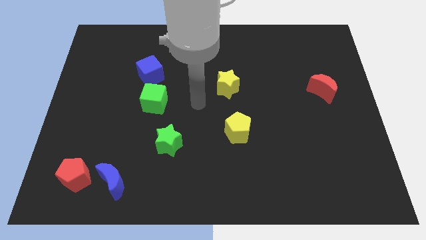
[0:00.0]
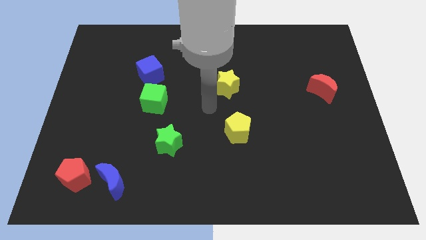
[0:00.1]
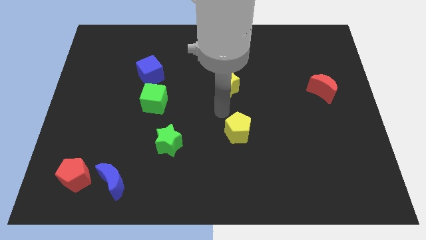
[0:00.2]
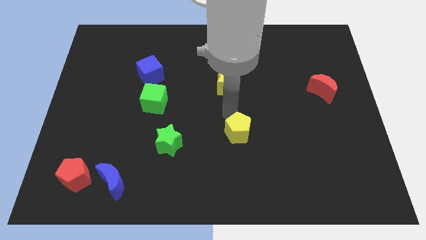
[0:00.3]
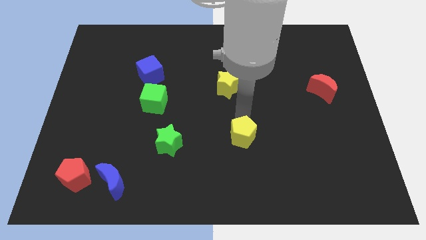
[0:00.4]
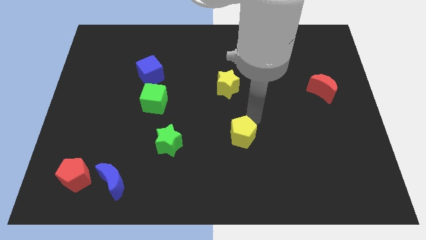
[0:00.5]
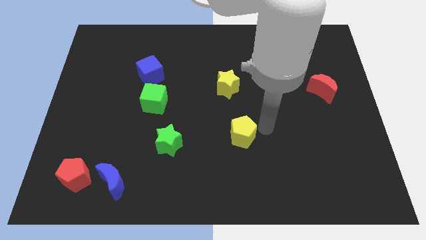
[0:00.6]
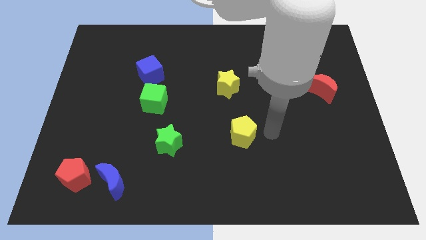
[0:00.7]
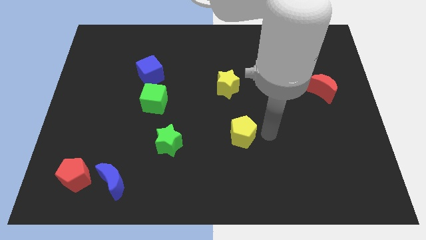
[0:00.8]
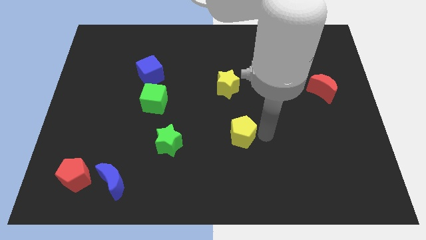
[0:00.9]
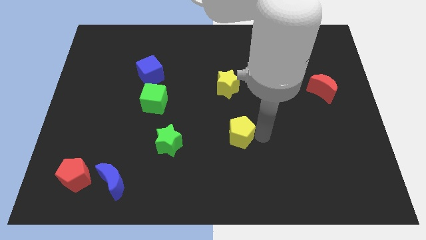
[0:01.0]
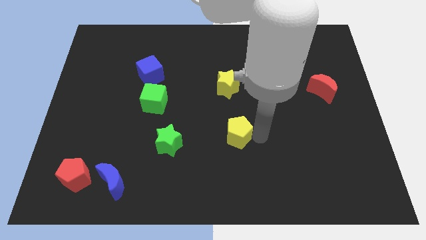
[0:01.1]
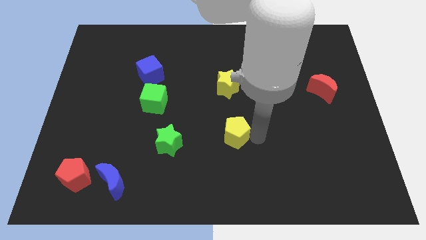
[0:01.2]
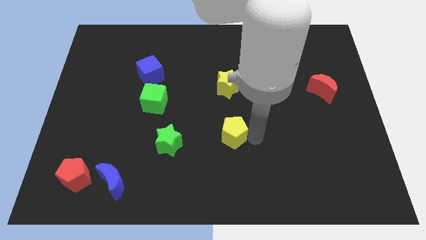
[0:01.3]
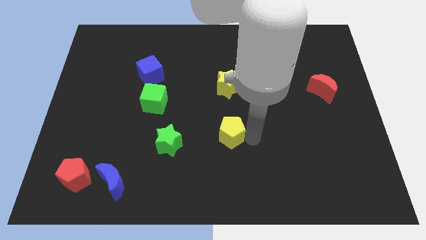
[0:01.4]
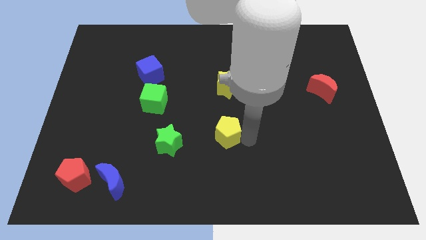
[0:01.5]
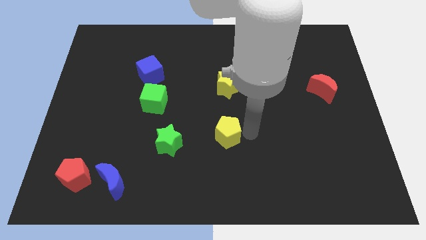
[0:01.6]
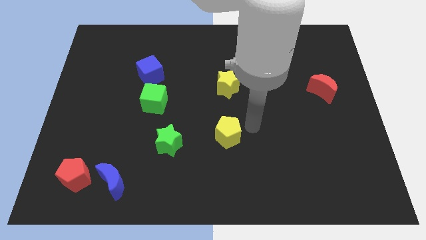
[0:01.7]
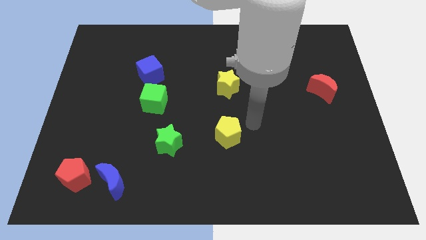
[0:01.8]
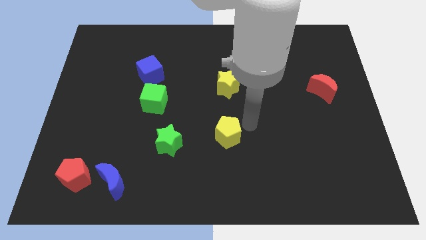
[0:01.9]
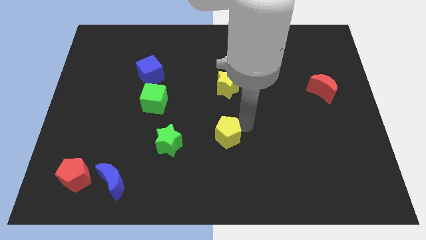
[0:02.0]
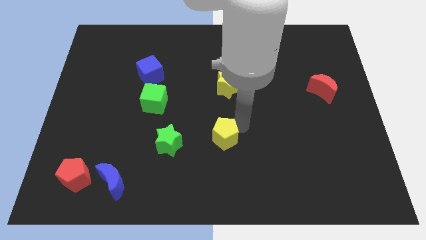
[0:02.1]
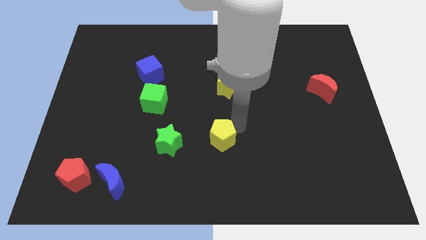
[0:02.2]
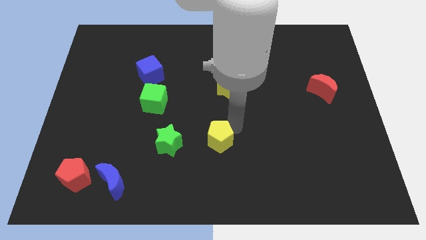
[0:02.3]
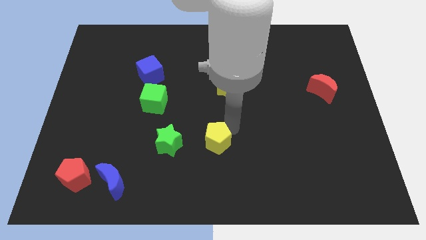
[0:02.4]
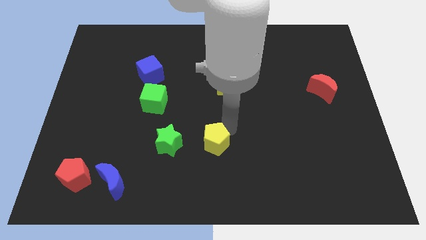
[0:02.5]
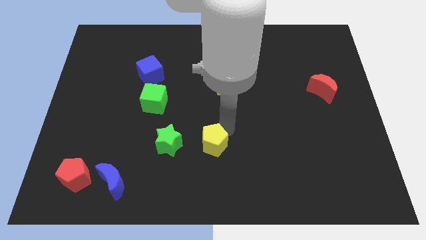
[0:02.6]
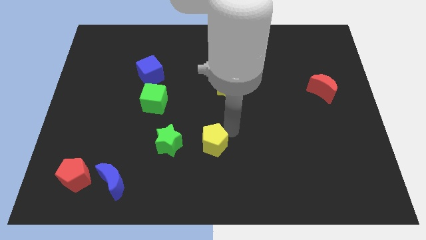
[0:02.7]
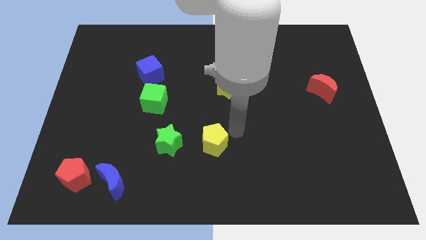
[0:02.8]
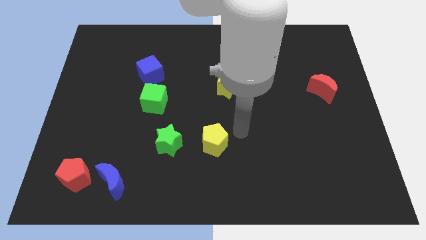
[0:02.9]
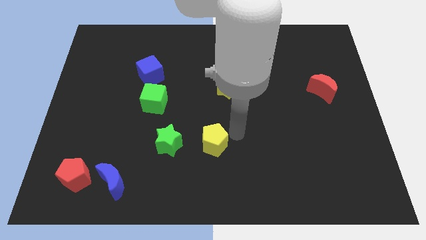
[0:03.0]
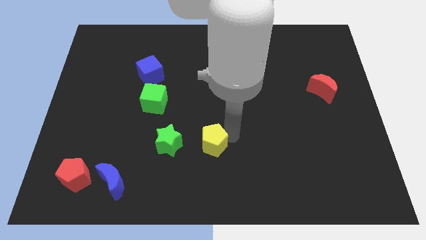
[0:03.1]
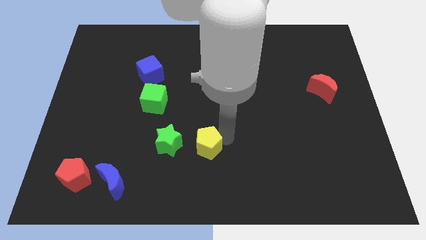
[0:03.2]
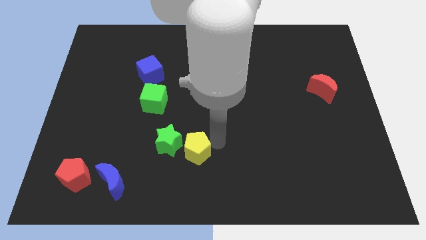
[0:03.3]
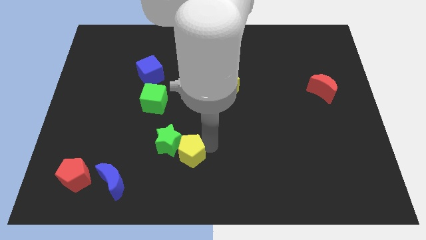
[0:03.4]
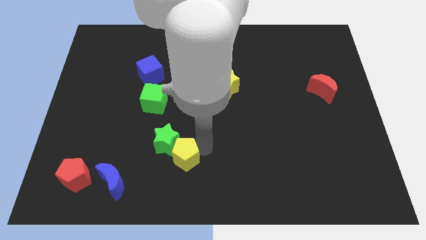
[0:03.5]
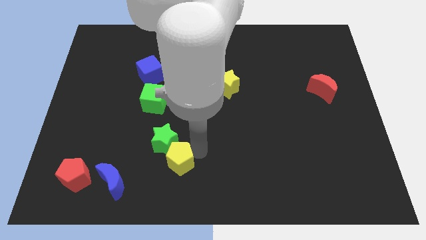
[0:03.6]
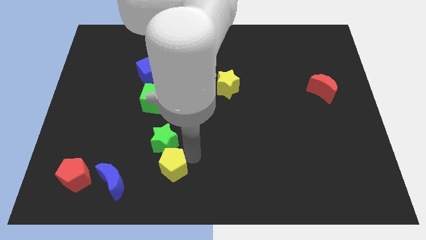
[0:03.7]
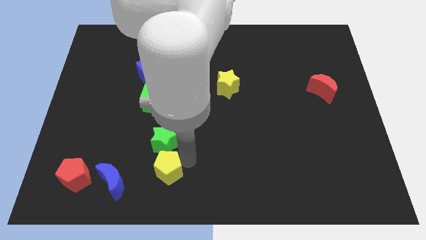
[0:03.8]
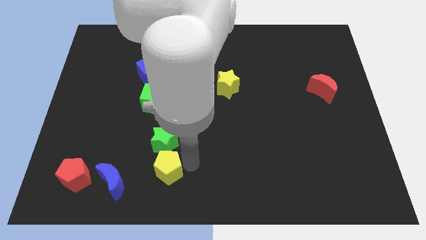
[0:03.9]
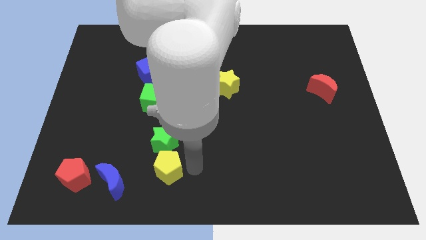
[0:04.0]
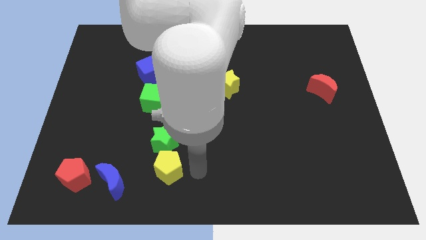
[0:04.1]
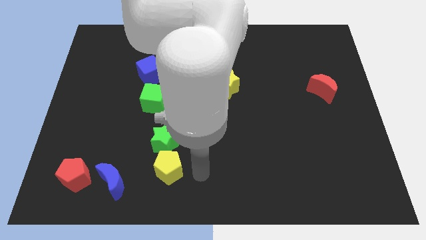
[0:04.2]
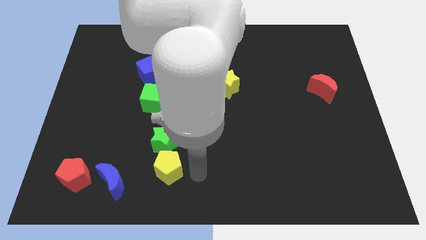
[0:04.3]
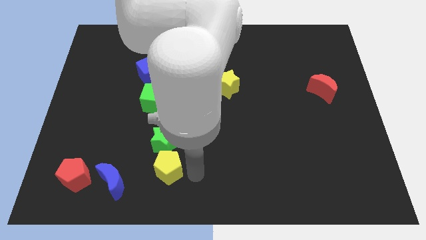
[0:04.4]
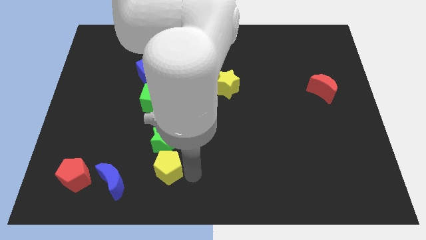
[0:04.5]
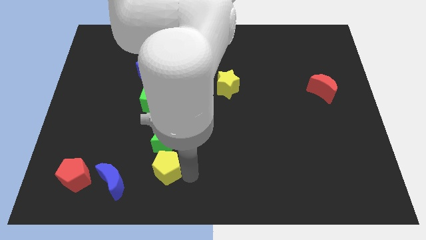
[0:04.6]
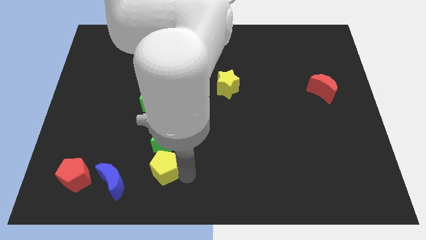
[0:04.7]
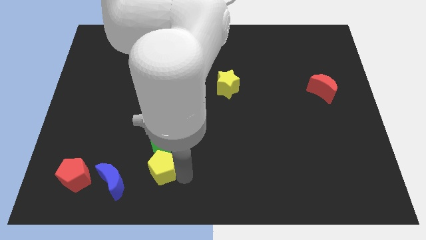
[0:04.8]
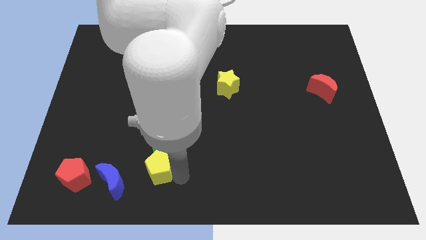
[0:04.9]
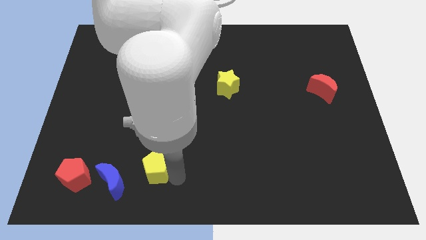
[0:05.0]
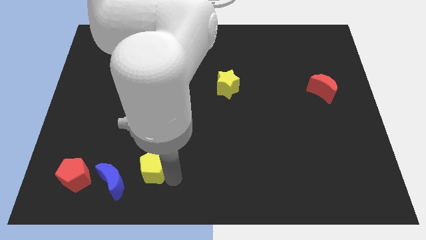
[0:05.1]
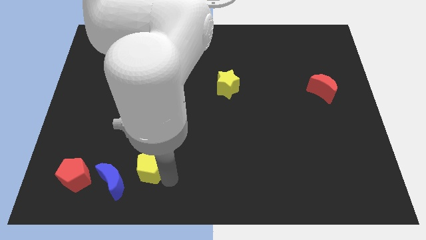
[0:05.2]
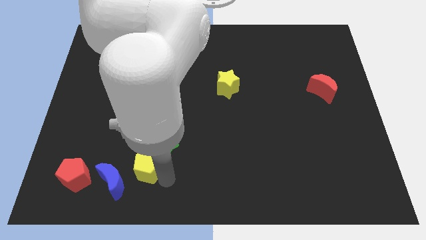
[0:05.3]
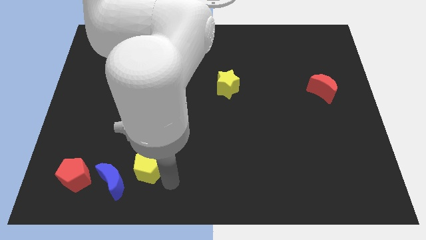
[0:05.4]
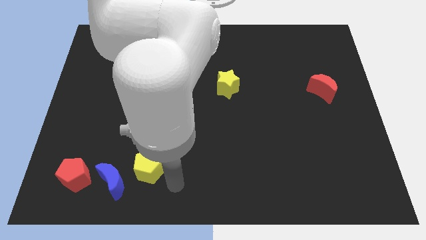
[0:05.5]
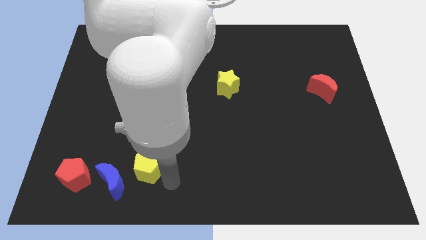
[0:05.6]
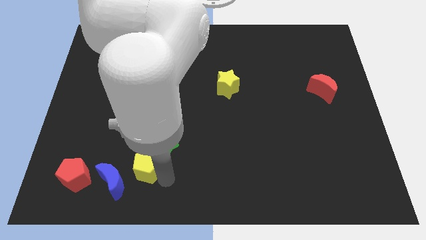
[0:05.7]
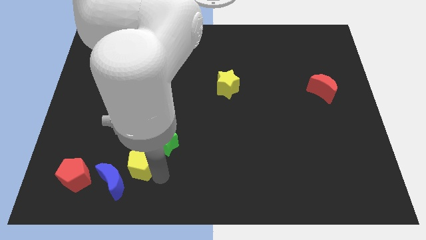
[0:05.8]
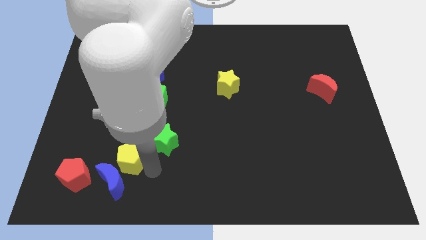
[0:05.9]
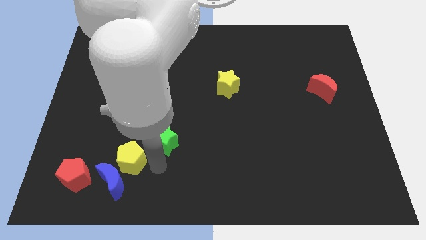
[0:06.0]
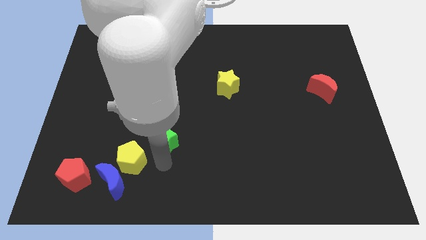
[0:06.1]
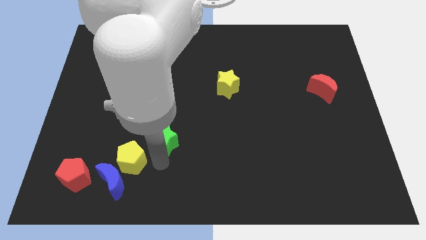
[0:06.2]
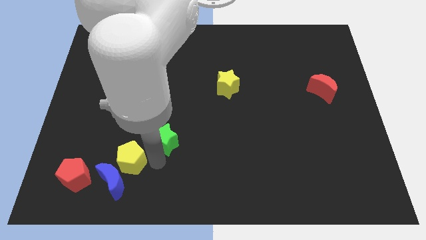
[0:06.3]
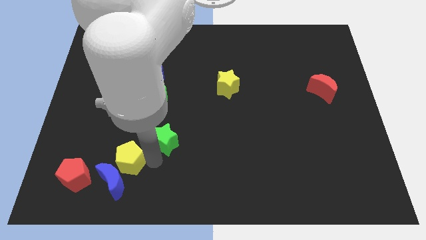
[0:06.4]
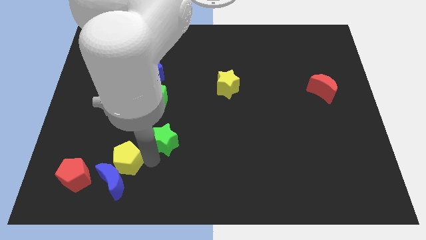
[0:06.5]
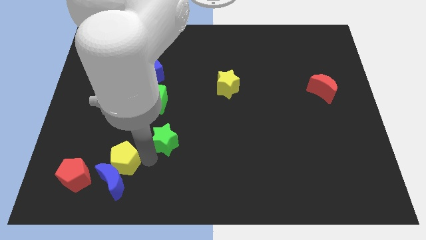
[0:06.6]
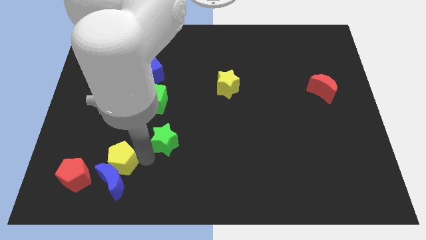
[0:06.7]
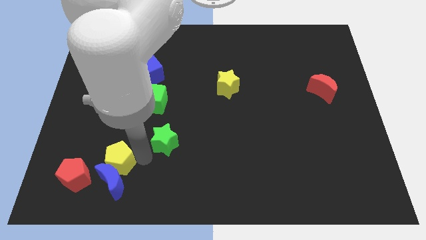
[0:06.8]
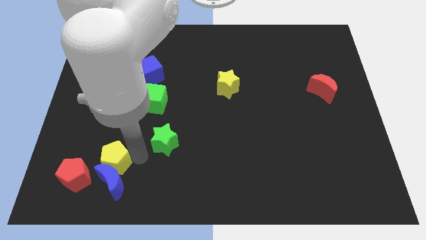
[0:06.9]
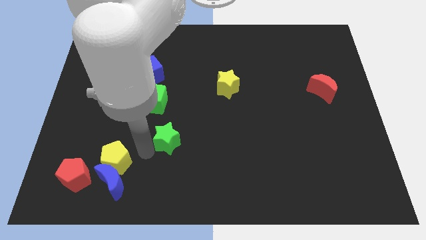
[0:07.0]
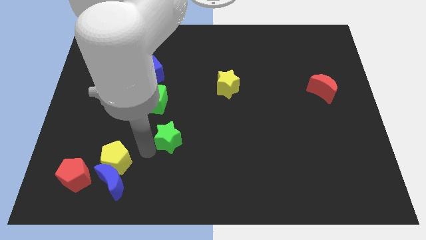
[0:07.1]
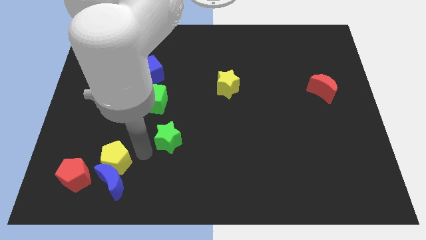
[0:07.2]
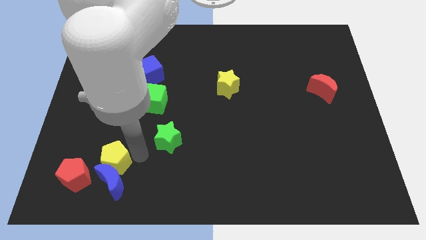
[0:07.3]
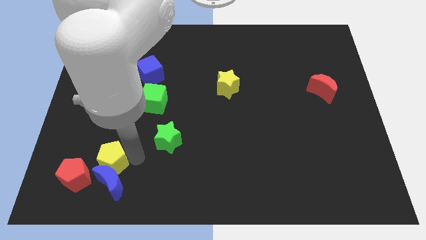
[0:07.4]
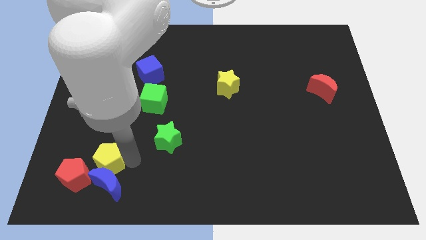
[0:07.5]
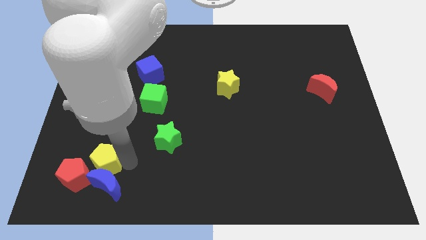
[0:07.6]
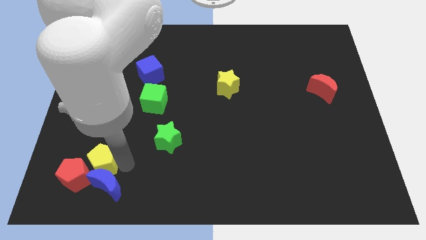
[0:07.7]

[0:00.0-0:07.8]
slide the yellow pentagon to the red pentagon
